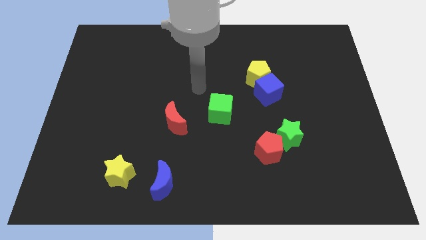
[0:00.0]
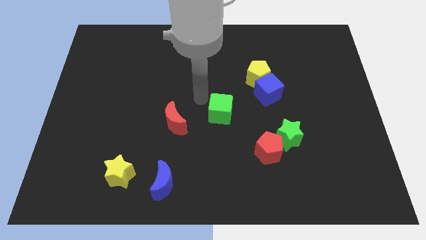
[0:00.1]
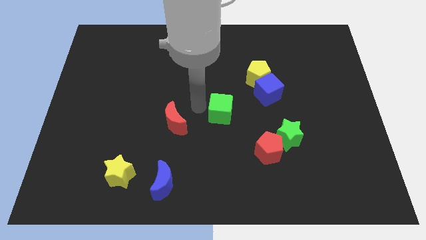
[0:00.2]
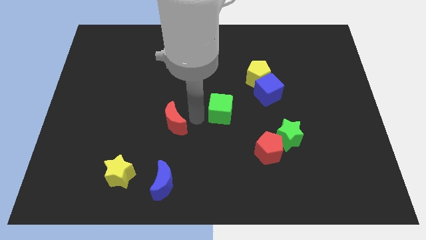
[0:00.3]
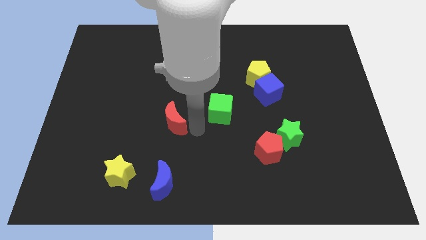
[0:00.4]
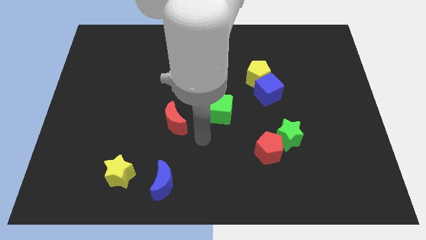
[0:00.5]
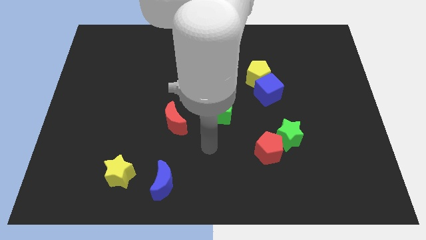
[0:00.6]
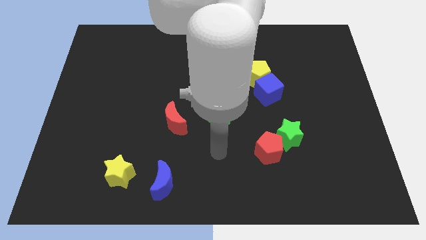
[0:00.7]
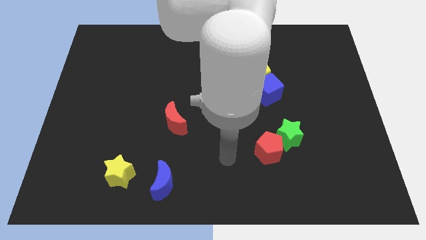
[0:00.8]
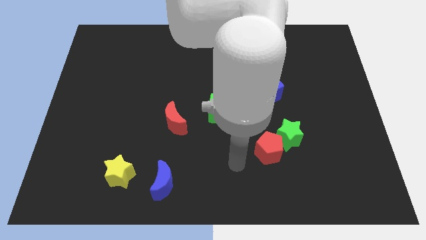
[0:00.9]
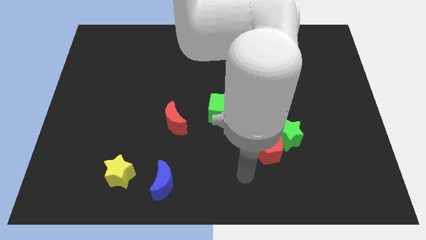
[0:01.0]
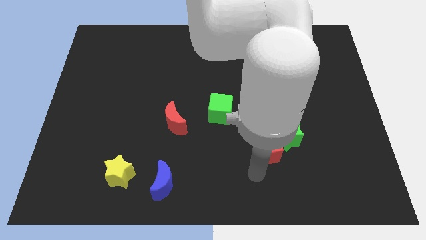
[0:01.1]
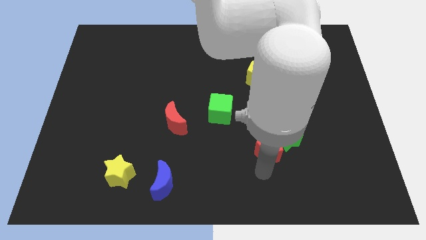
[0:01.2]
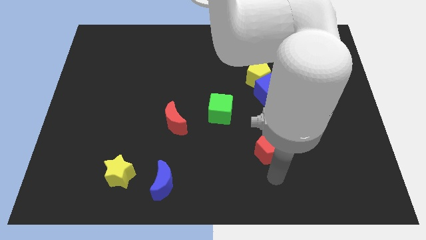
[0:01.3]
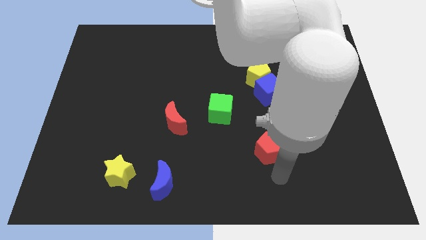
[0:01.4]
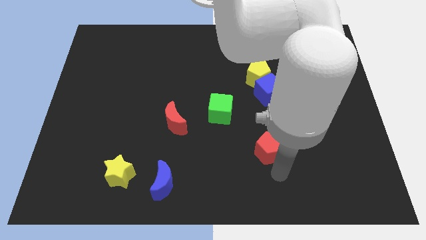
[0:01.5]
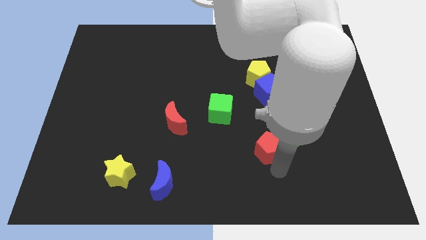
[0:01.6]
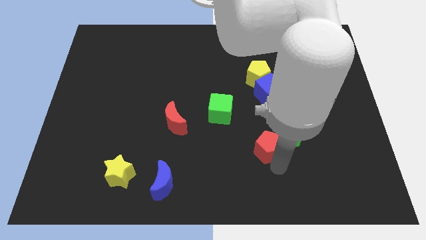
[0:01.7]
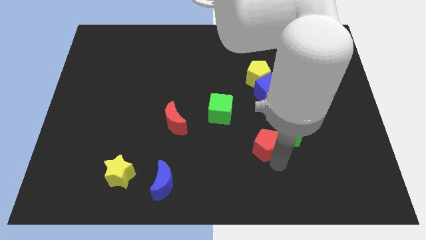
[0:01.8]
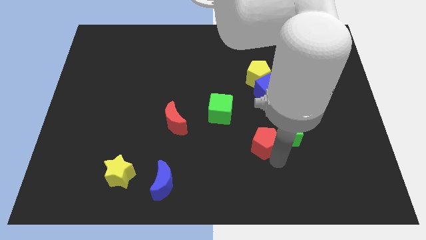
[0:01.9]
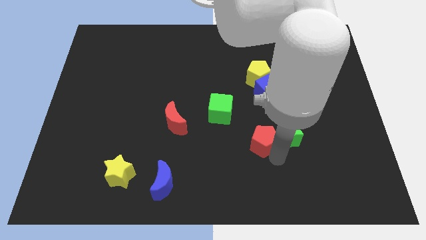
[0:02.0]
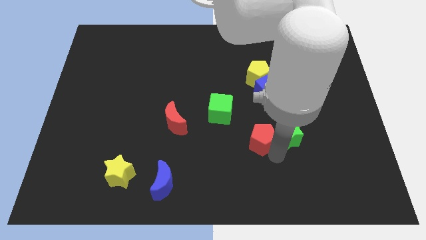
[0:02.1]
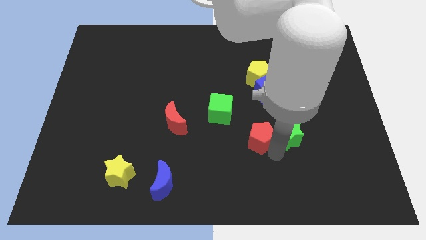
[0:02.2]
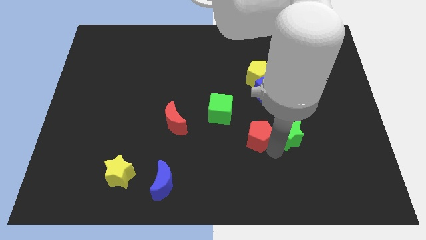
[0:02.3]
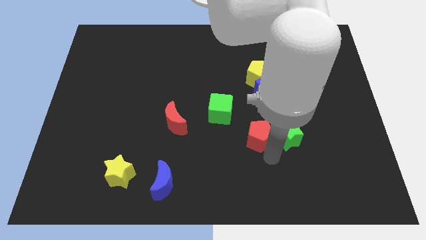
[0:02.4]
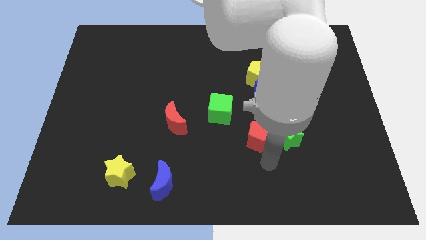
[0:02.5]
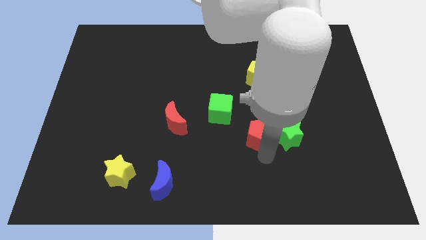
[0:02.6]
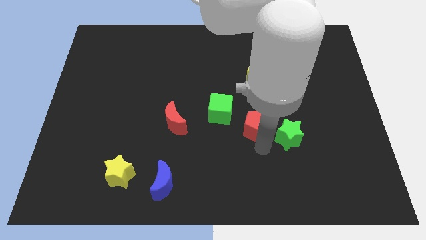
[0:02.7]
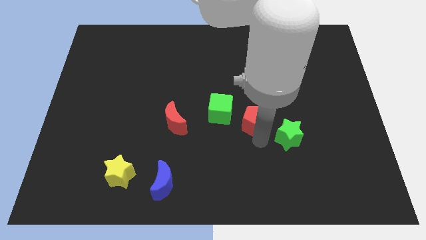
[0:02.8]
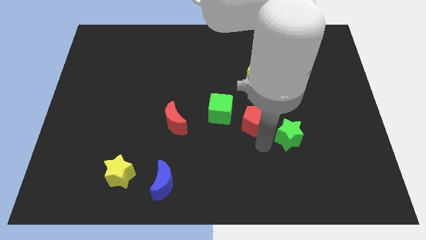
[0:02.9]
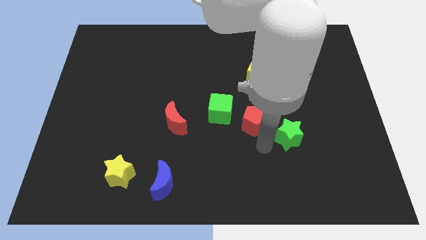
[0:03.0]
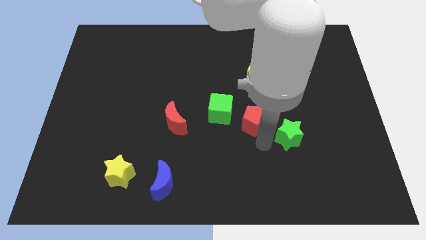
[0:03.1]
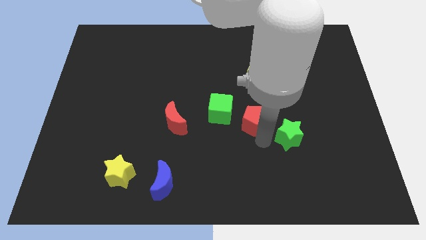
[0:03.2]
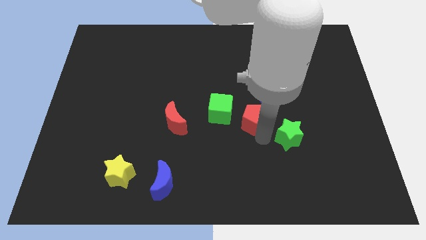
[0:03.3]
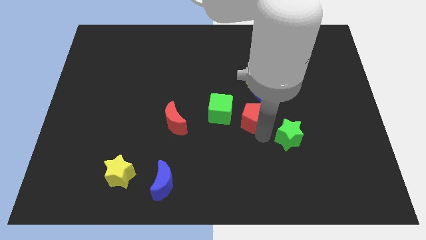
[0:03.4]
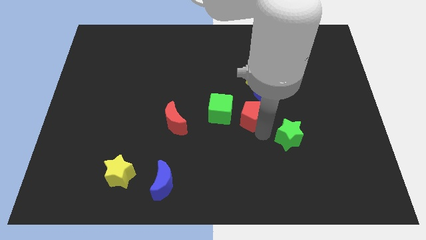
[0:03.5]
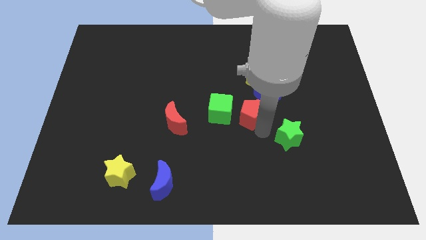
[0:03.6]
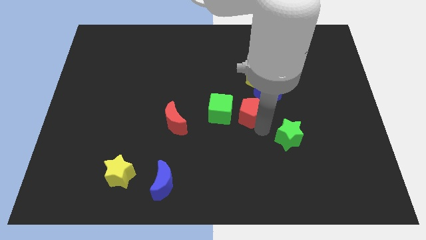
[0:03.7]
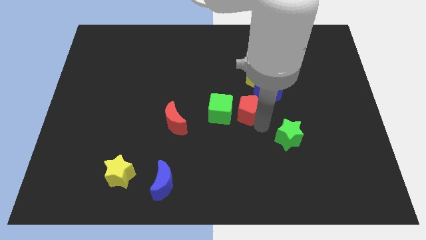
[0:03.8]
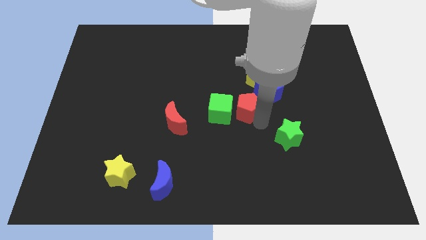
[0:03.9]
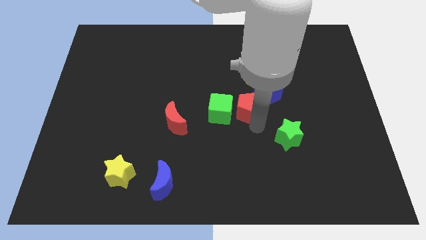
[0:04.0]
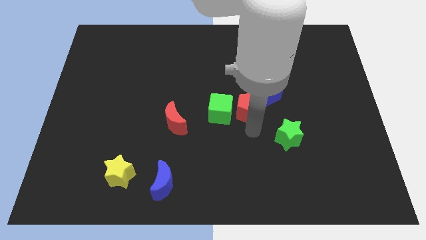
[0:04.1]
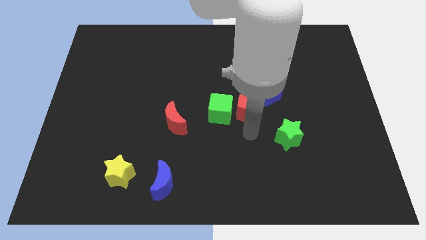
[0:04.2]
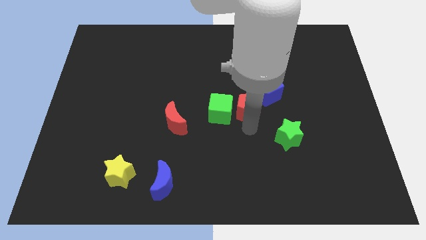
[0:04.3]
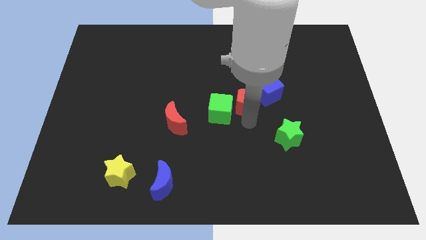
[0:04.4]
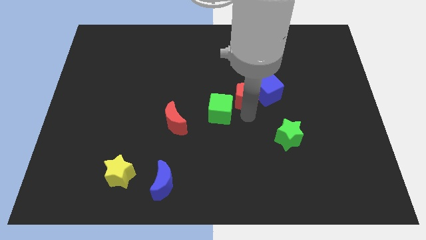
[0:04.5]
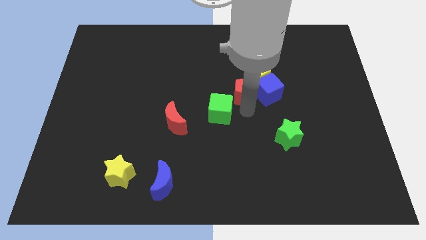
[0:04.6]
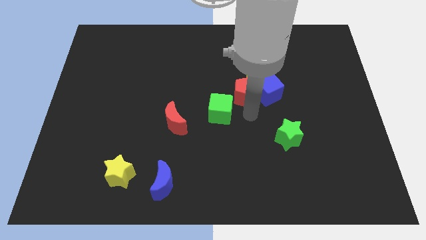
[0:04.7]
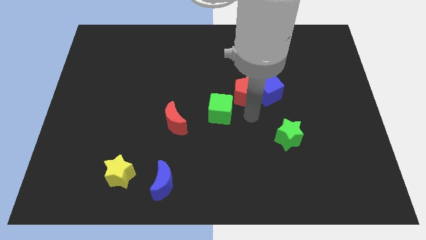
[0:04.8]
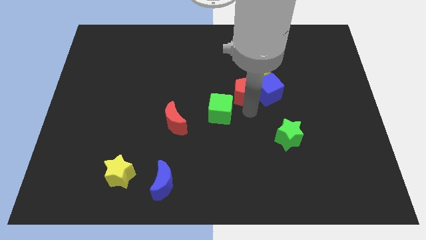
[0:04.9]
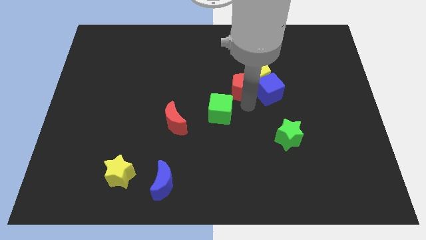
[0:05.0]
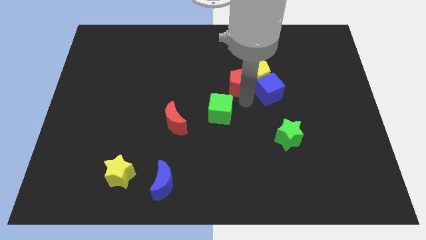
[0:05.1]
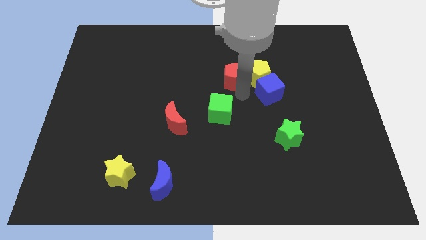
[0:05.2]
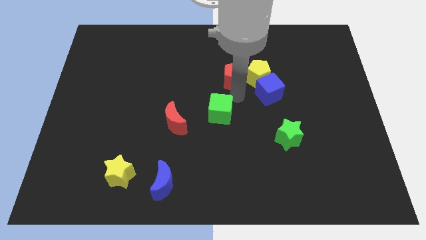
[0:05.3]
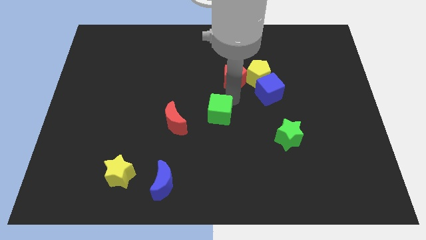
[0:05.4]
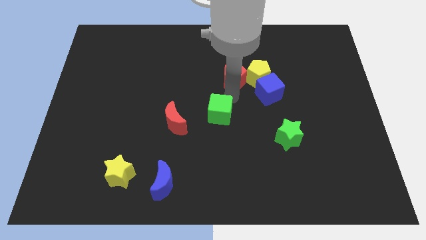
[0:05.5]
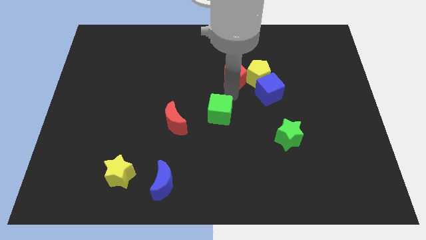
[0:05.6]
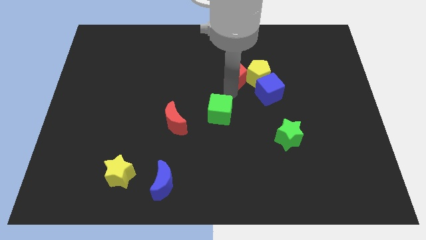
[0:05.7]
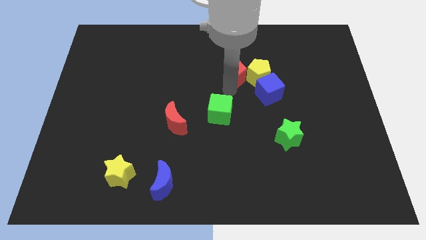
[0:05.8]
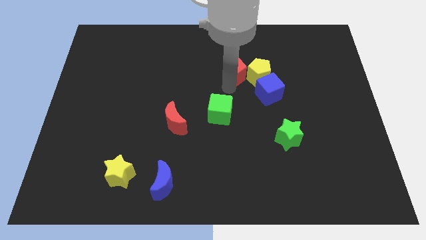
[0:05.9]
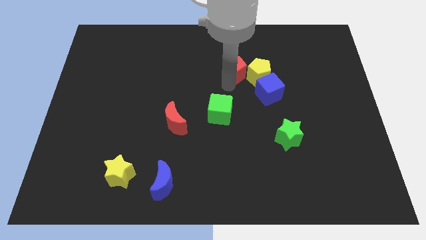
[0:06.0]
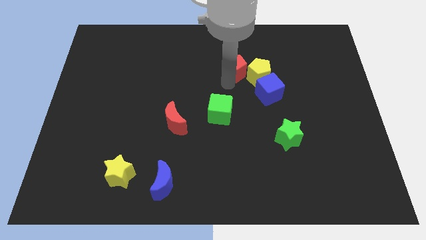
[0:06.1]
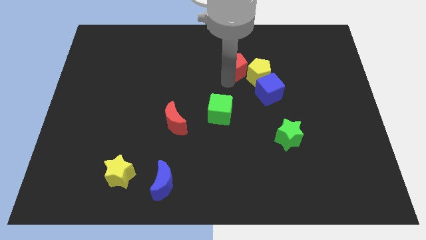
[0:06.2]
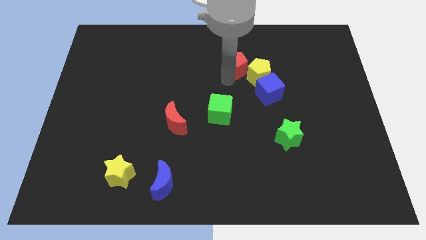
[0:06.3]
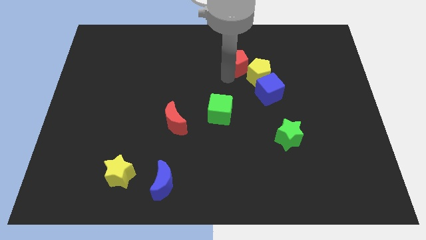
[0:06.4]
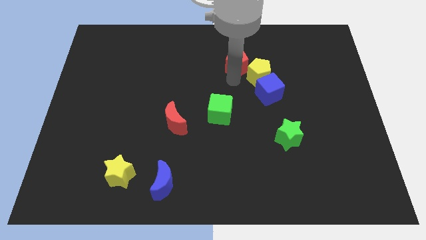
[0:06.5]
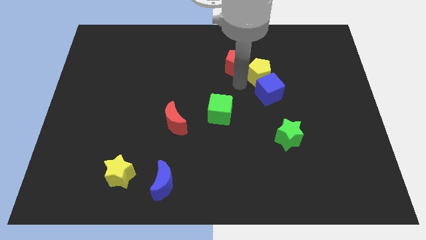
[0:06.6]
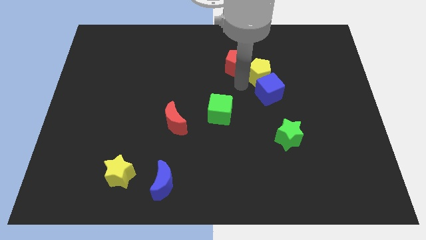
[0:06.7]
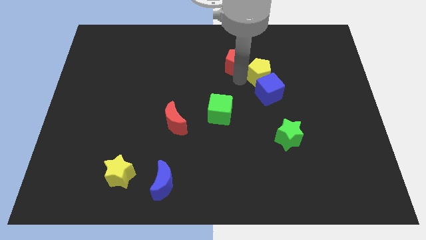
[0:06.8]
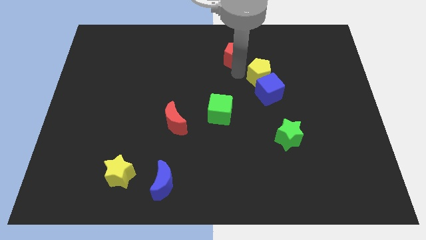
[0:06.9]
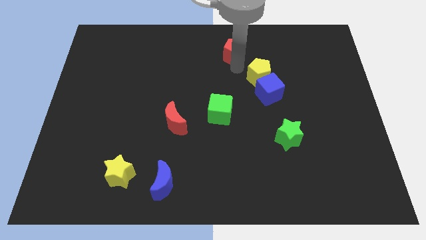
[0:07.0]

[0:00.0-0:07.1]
push the red pentagon to the towards your base
